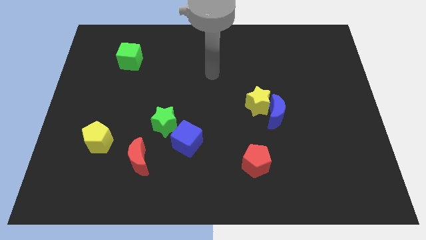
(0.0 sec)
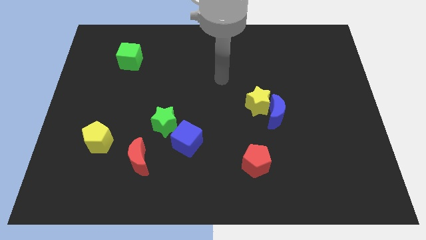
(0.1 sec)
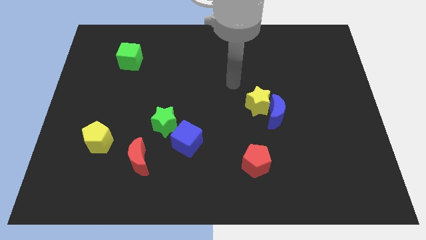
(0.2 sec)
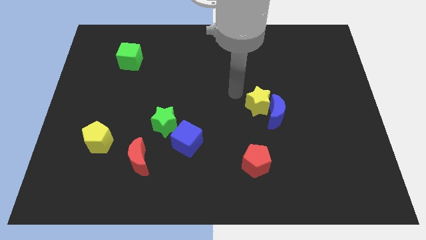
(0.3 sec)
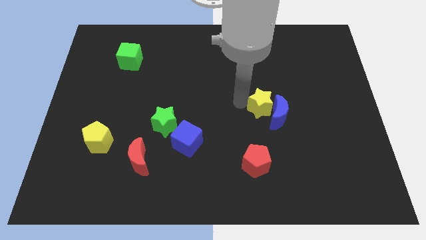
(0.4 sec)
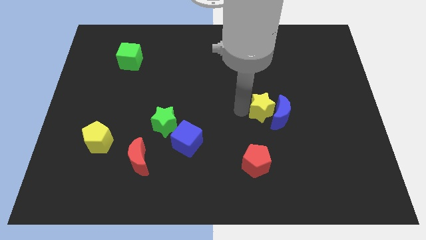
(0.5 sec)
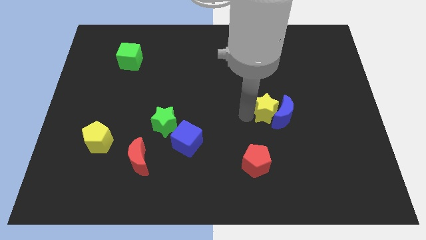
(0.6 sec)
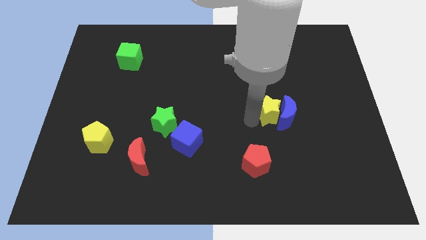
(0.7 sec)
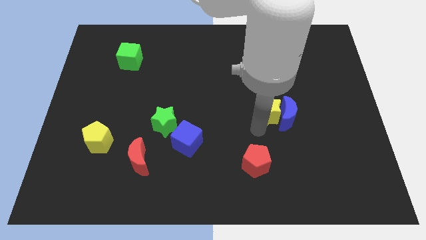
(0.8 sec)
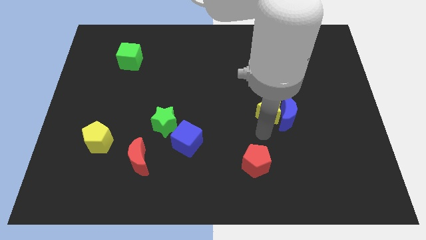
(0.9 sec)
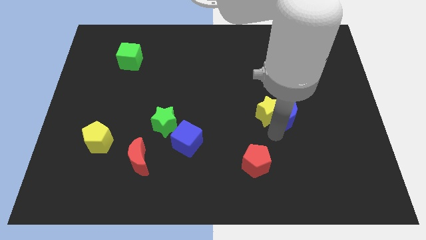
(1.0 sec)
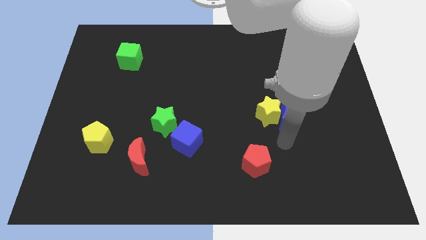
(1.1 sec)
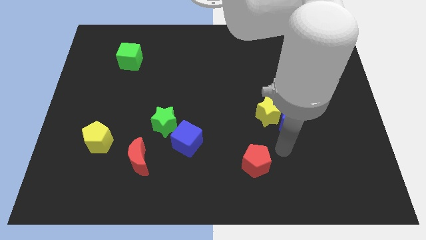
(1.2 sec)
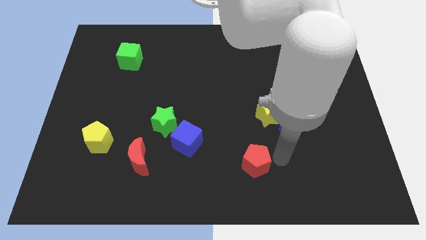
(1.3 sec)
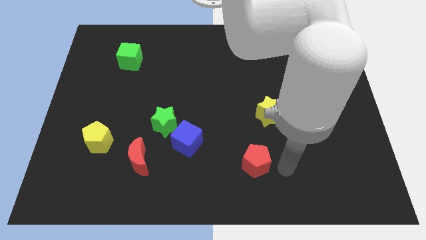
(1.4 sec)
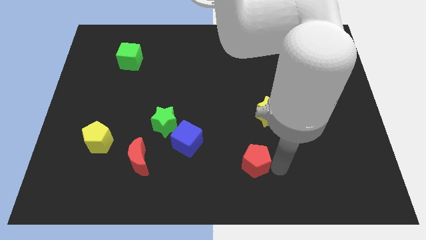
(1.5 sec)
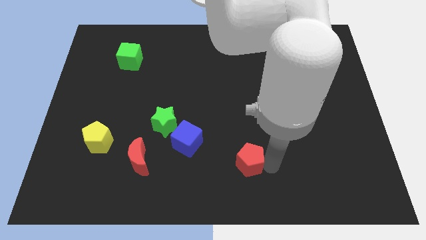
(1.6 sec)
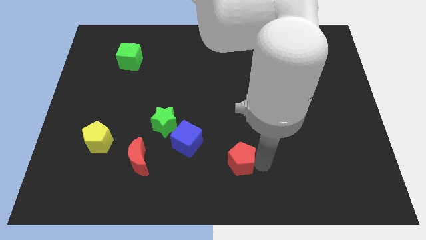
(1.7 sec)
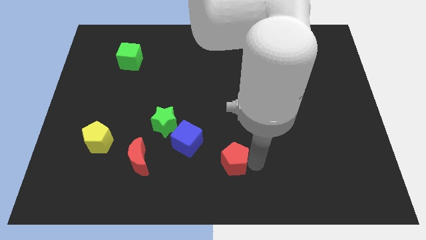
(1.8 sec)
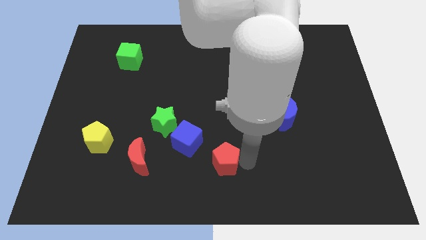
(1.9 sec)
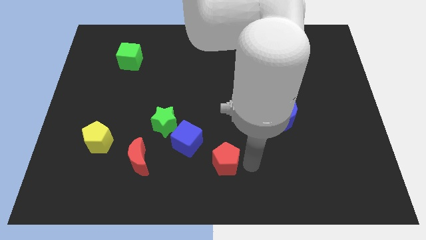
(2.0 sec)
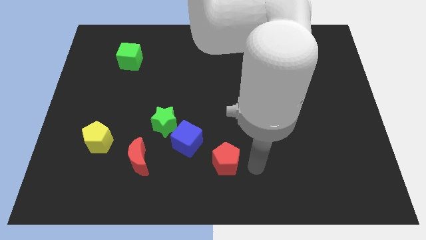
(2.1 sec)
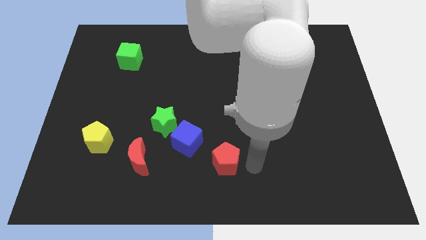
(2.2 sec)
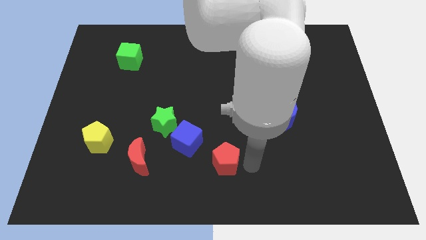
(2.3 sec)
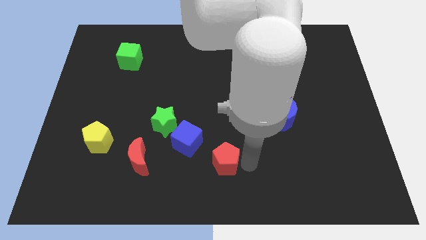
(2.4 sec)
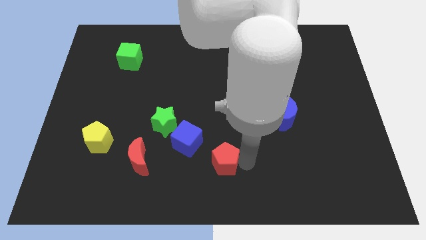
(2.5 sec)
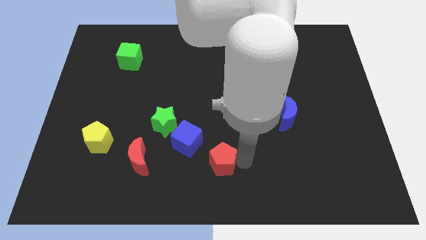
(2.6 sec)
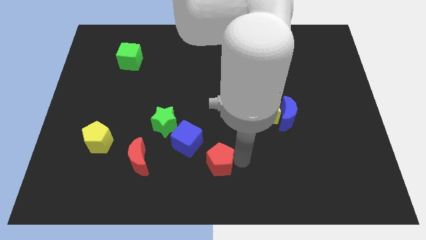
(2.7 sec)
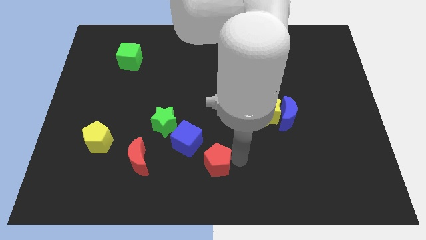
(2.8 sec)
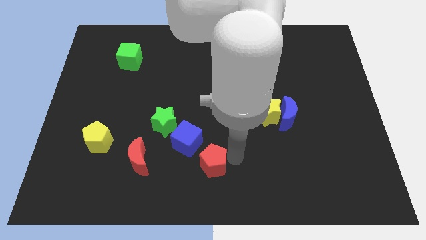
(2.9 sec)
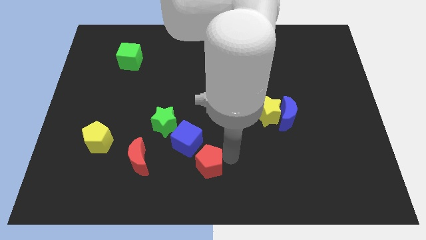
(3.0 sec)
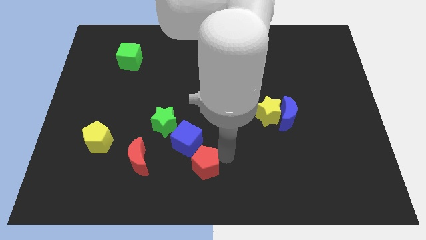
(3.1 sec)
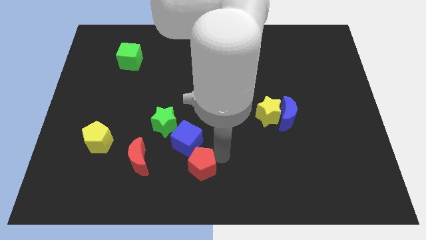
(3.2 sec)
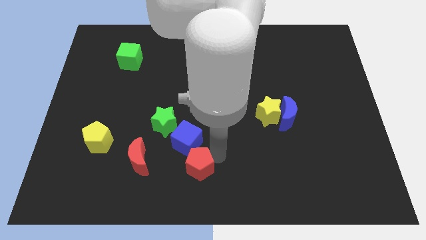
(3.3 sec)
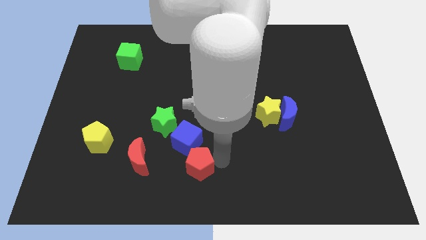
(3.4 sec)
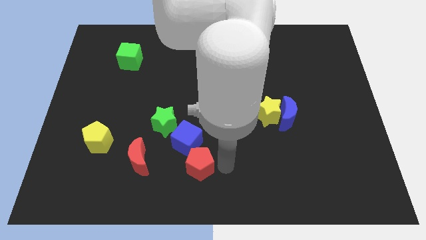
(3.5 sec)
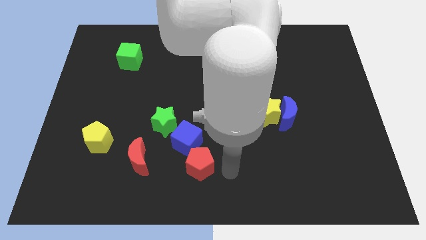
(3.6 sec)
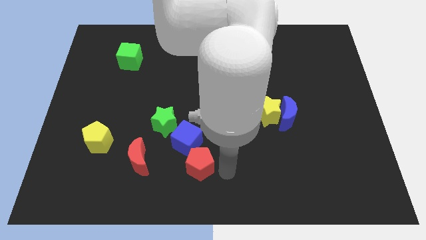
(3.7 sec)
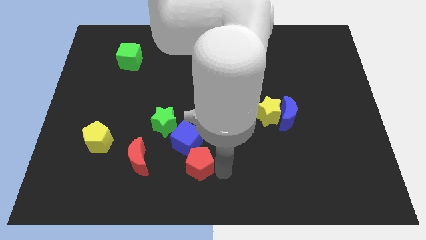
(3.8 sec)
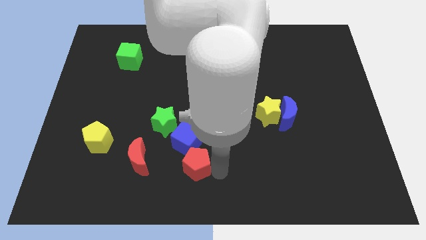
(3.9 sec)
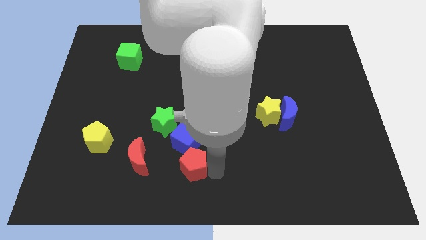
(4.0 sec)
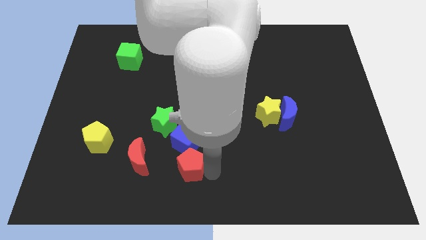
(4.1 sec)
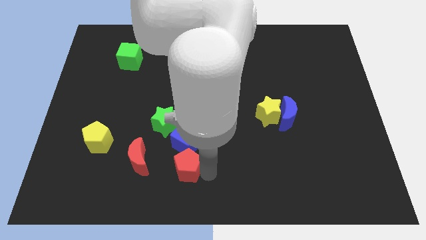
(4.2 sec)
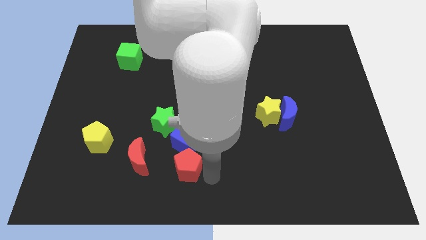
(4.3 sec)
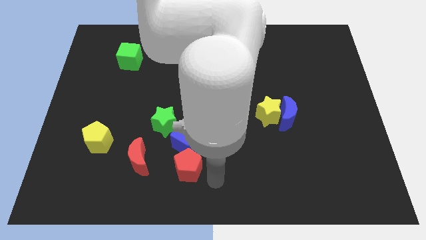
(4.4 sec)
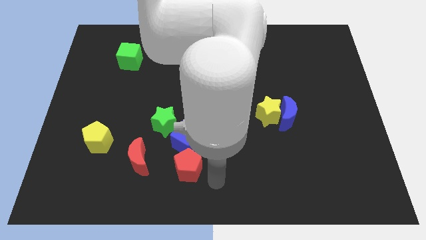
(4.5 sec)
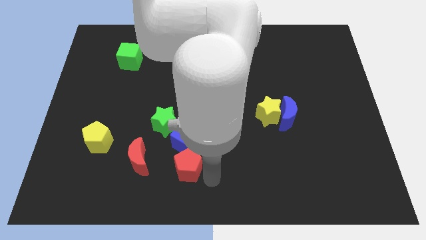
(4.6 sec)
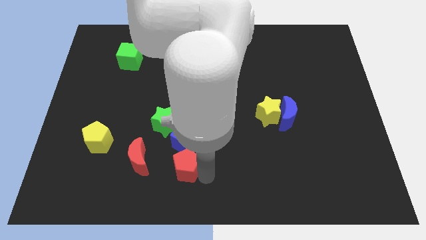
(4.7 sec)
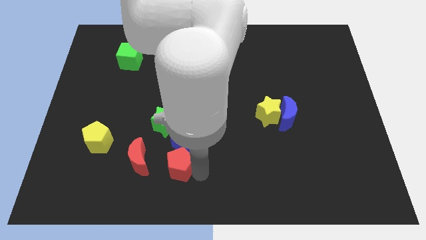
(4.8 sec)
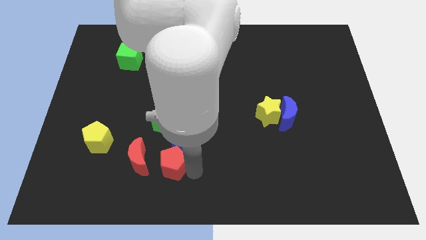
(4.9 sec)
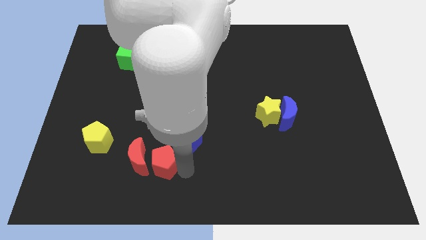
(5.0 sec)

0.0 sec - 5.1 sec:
push the red pentagon to the top right side of the red moon

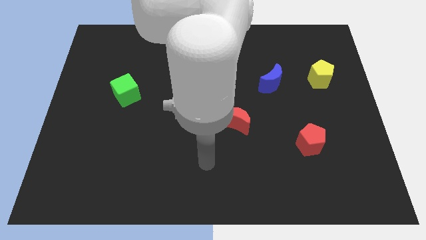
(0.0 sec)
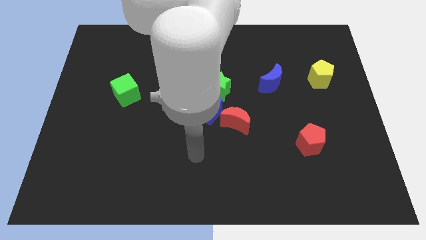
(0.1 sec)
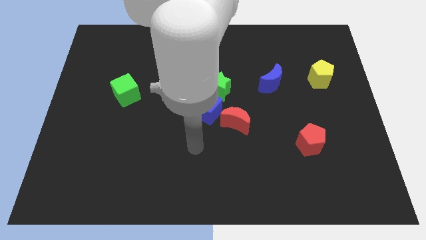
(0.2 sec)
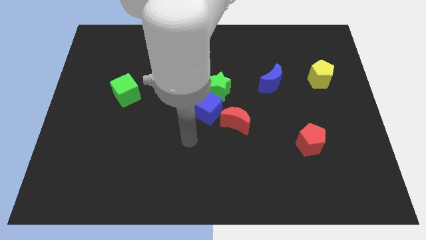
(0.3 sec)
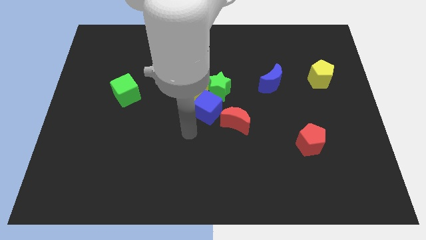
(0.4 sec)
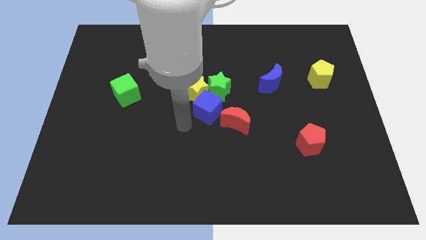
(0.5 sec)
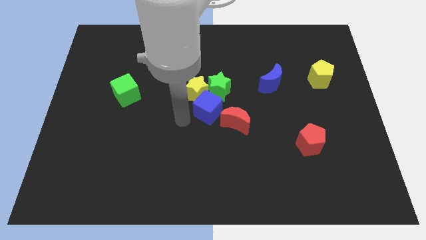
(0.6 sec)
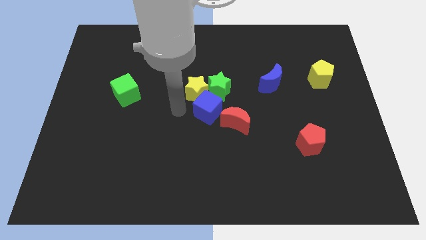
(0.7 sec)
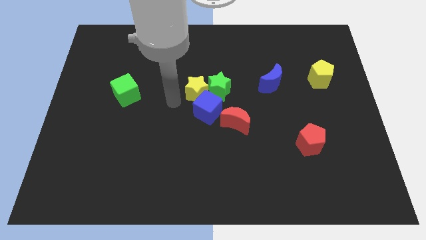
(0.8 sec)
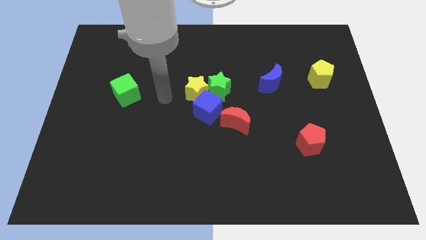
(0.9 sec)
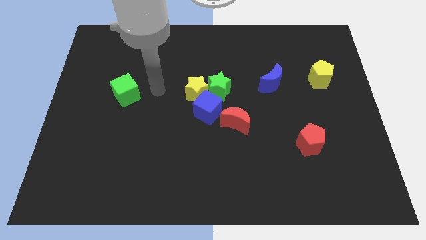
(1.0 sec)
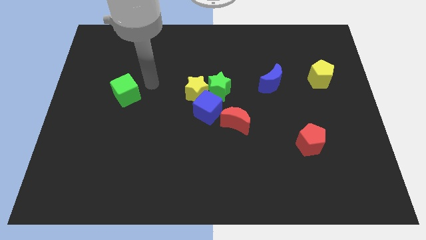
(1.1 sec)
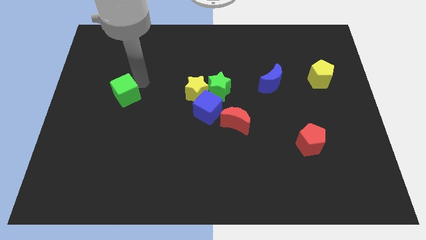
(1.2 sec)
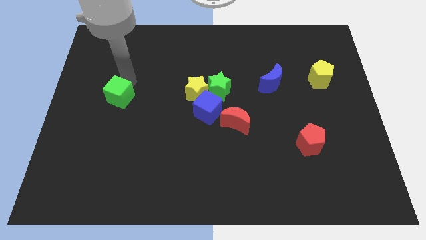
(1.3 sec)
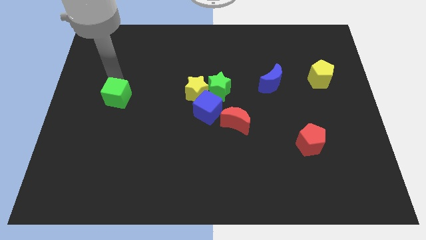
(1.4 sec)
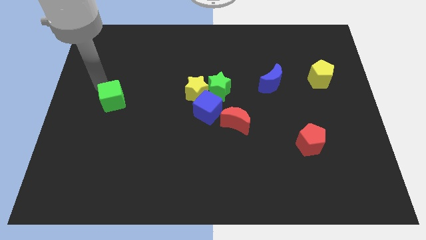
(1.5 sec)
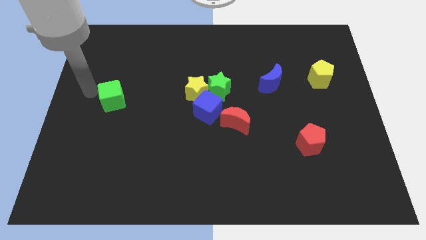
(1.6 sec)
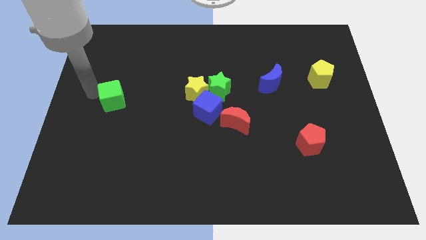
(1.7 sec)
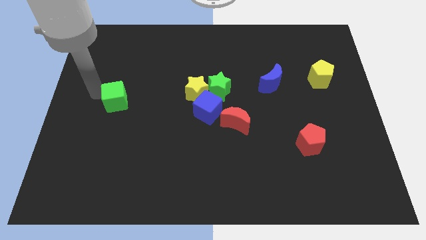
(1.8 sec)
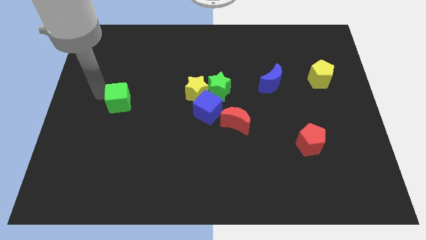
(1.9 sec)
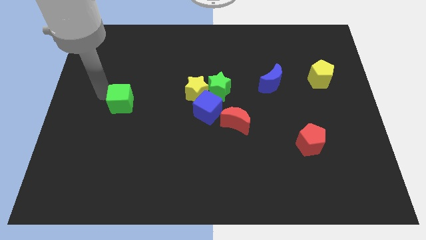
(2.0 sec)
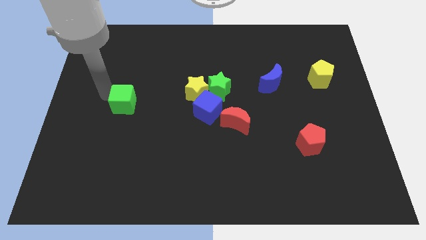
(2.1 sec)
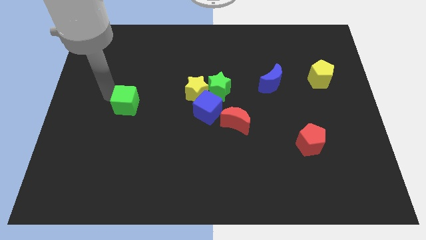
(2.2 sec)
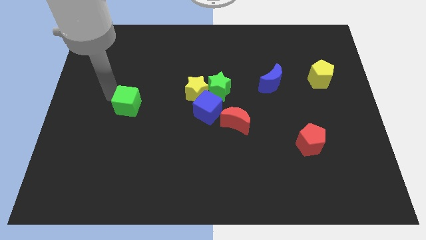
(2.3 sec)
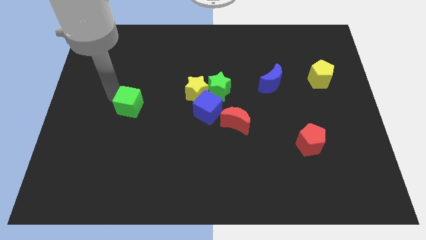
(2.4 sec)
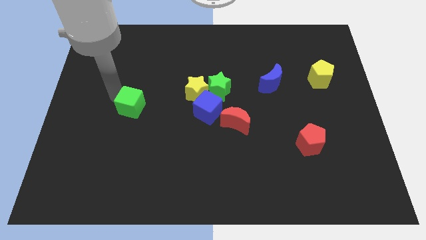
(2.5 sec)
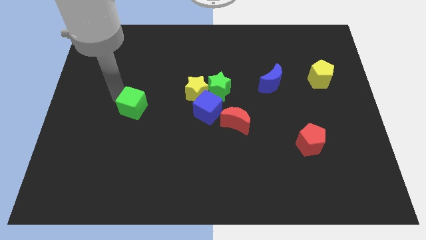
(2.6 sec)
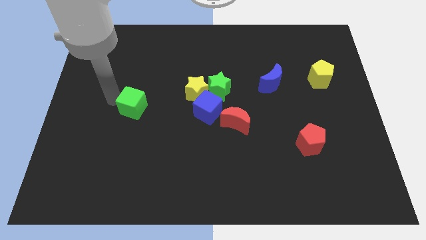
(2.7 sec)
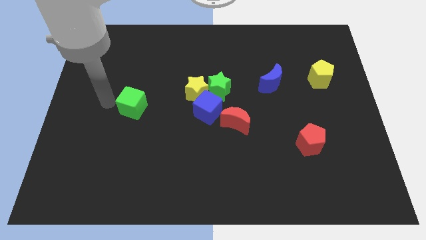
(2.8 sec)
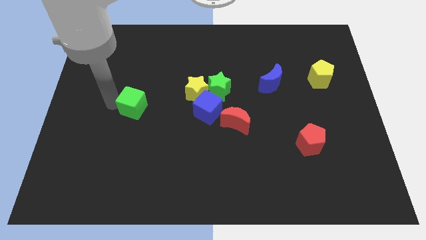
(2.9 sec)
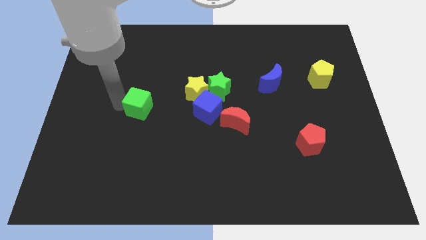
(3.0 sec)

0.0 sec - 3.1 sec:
put the green cube just left of the blue cube
